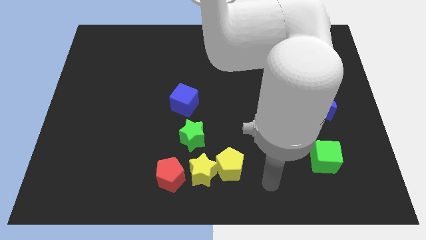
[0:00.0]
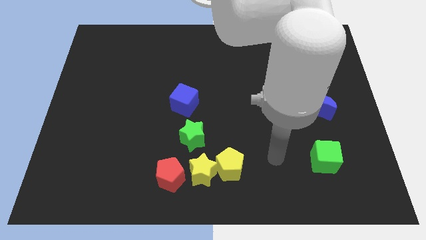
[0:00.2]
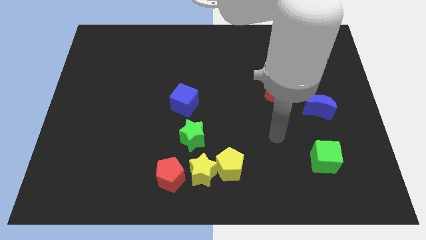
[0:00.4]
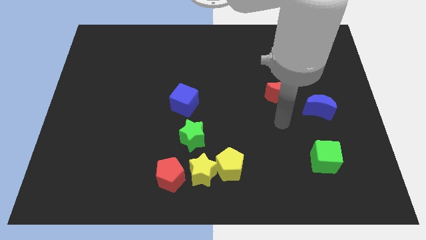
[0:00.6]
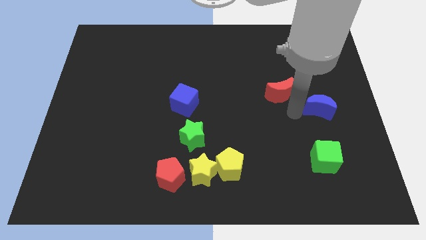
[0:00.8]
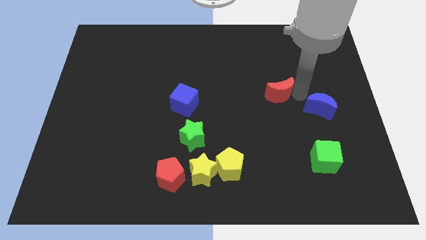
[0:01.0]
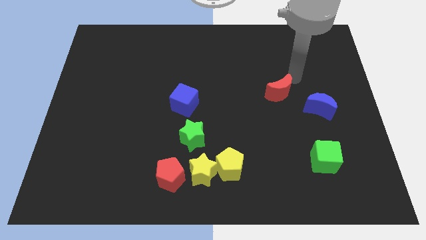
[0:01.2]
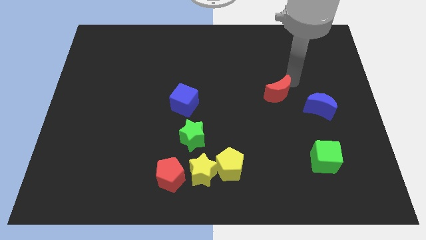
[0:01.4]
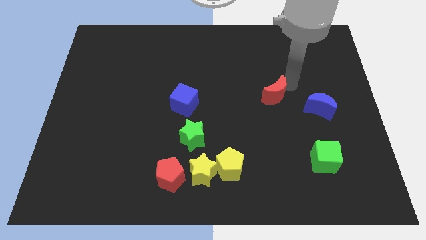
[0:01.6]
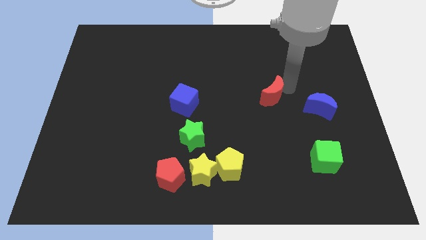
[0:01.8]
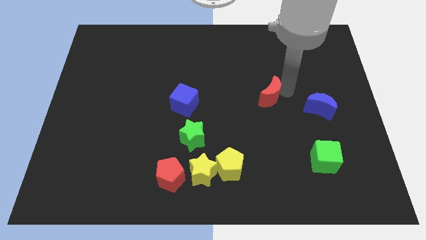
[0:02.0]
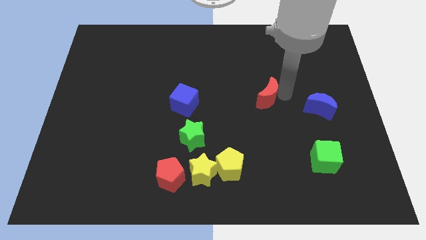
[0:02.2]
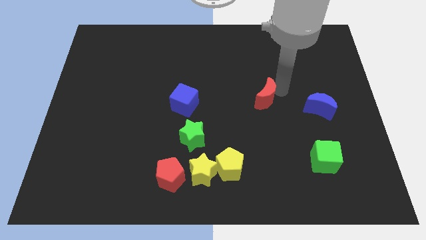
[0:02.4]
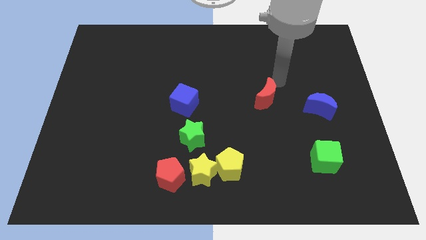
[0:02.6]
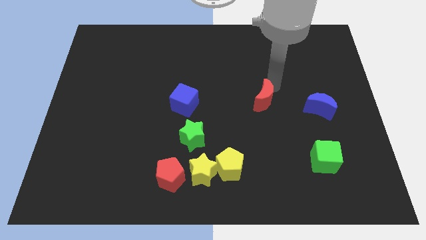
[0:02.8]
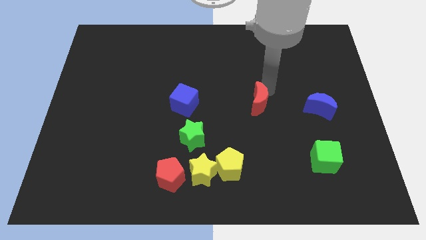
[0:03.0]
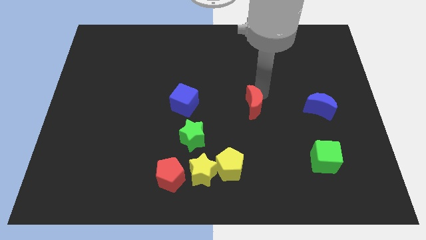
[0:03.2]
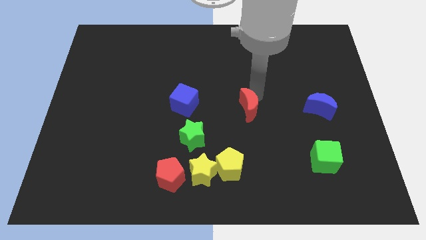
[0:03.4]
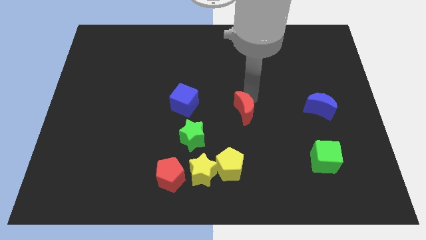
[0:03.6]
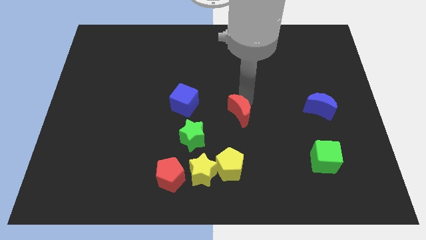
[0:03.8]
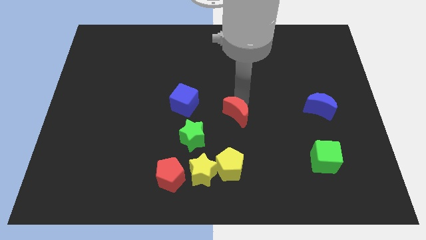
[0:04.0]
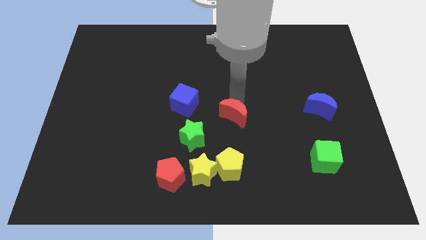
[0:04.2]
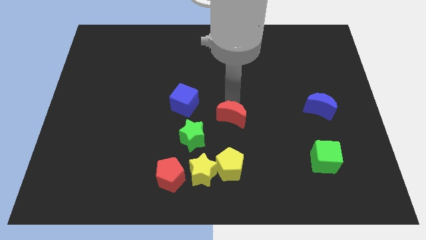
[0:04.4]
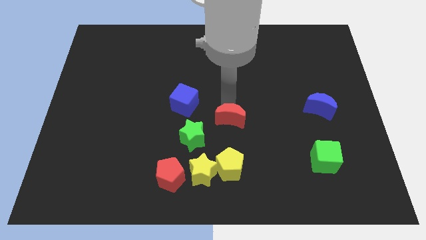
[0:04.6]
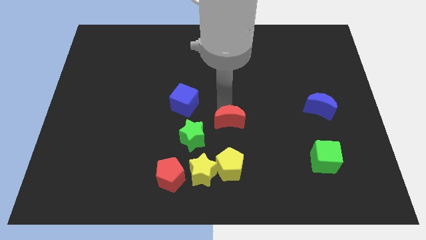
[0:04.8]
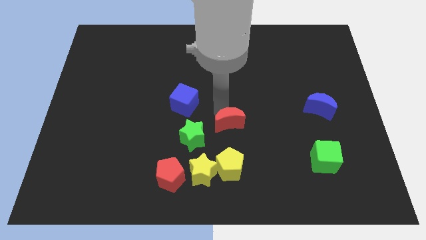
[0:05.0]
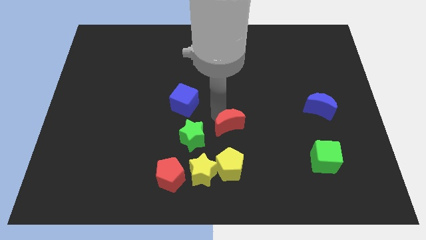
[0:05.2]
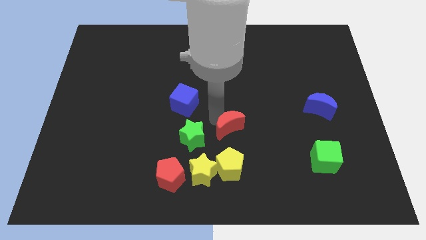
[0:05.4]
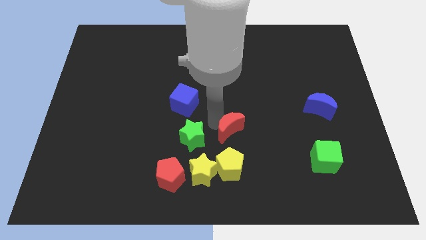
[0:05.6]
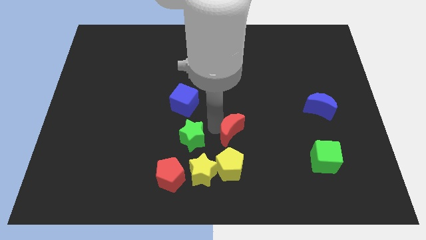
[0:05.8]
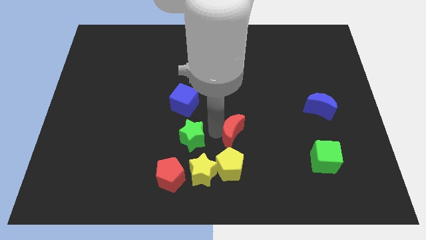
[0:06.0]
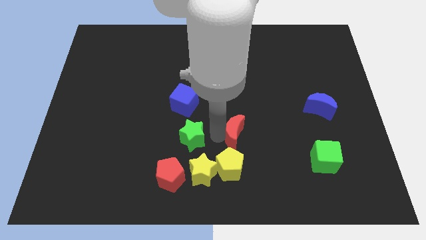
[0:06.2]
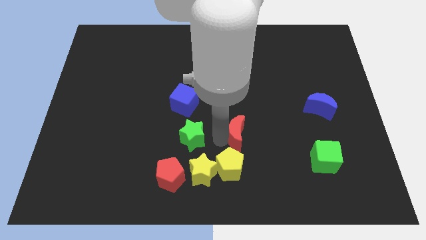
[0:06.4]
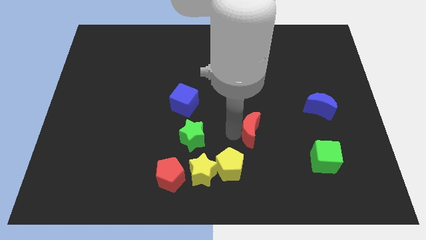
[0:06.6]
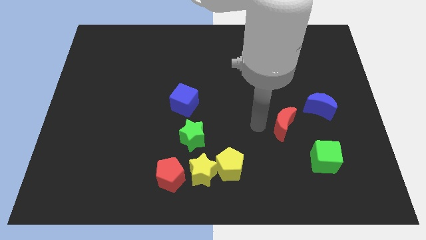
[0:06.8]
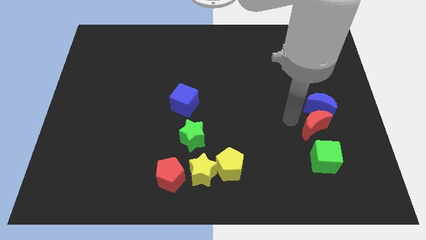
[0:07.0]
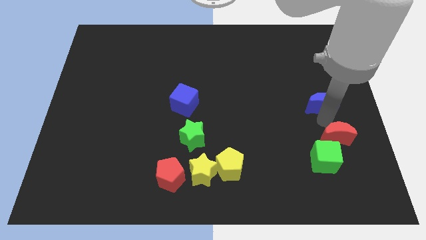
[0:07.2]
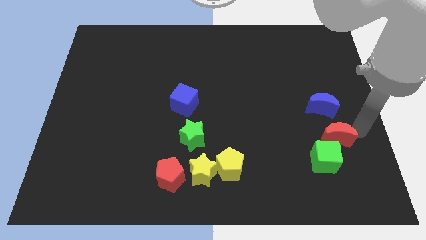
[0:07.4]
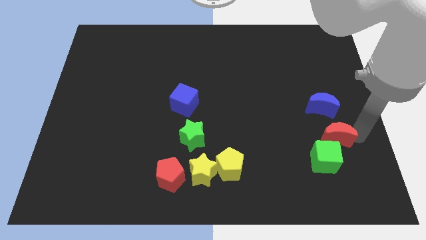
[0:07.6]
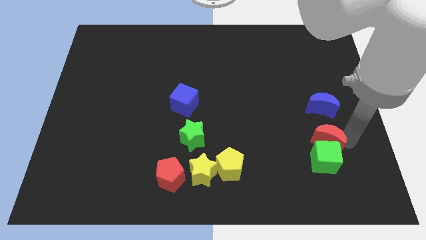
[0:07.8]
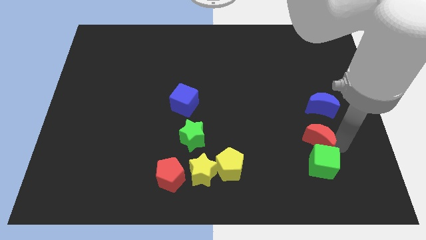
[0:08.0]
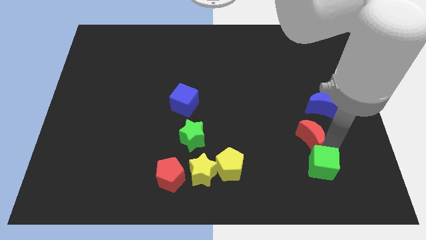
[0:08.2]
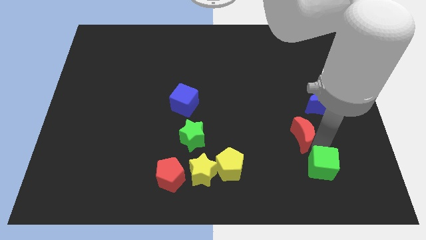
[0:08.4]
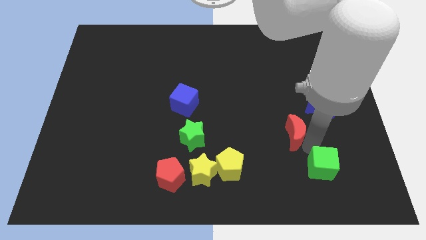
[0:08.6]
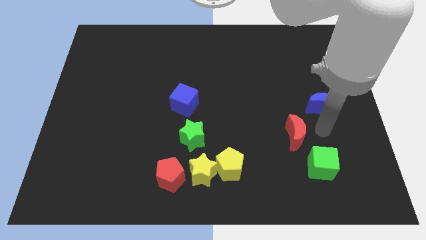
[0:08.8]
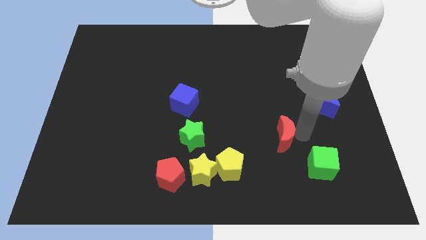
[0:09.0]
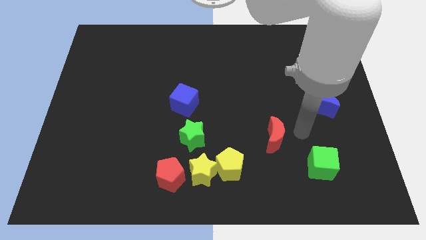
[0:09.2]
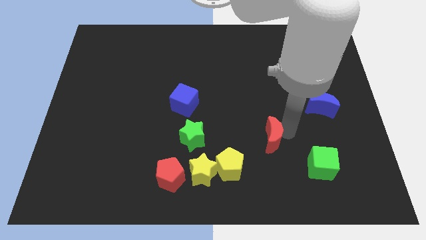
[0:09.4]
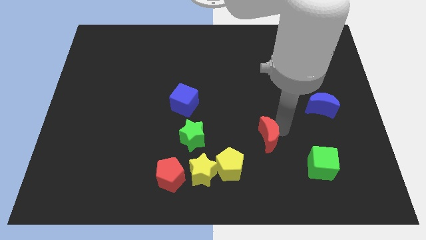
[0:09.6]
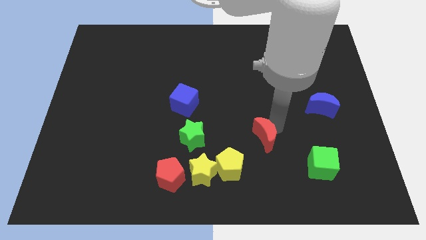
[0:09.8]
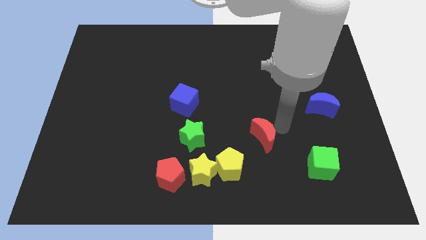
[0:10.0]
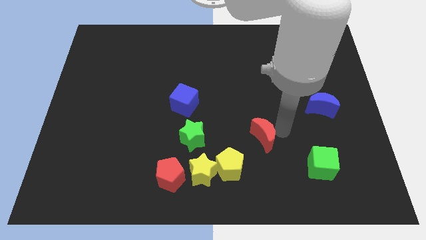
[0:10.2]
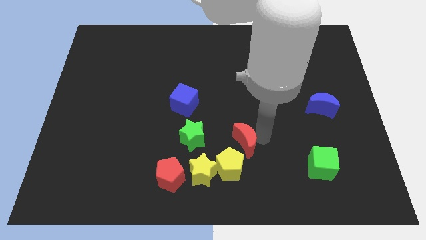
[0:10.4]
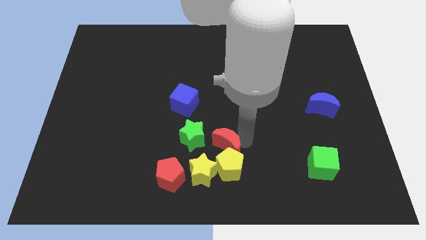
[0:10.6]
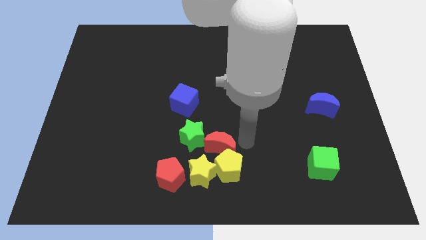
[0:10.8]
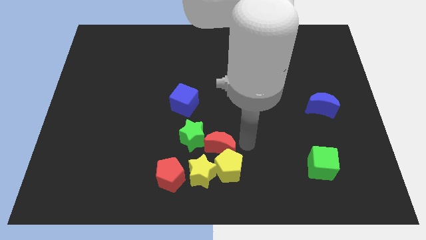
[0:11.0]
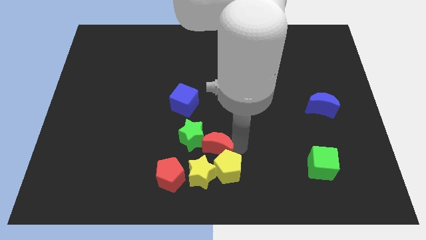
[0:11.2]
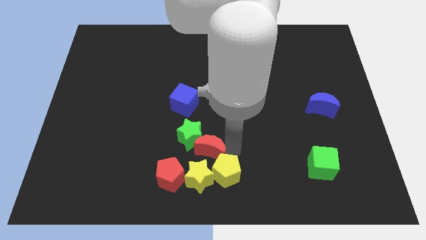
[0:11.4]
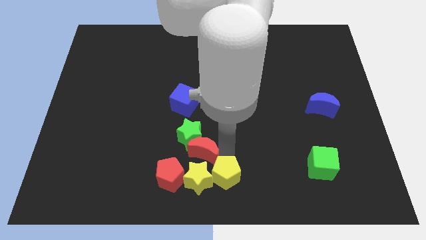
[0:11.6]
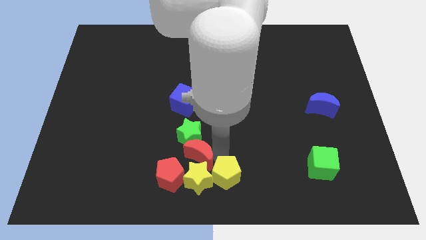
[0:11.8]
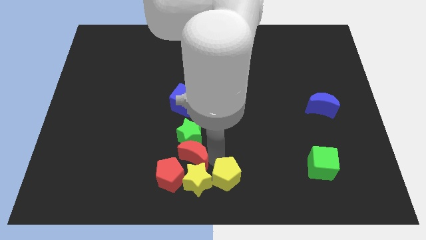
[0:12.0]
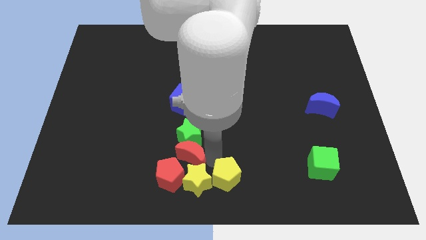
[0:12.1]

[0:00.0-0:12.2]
move the red moon close to the red pentagon
